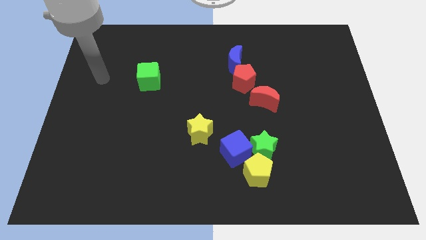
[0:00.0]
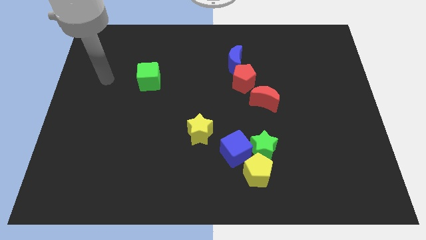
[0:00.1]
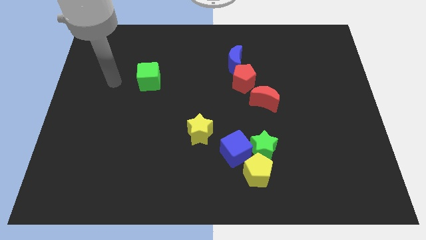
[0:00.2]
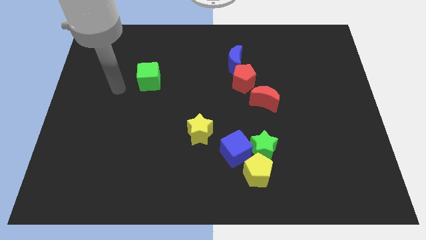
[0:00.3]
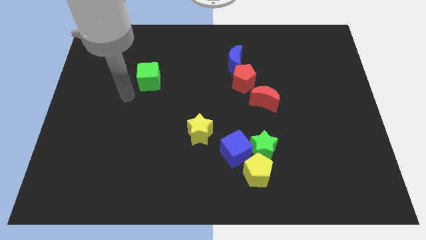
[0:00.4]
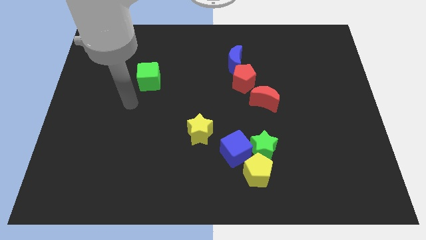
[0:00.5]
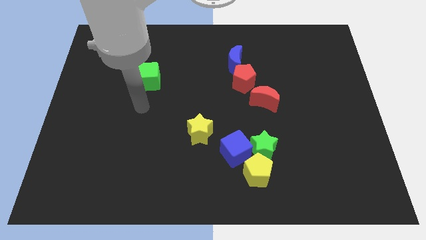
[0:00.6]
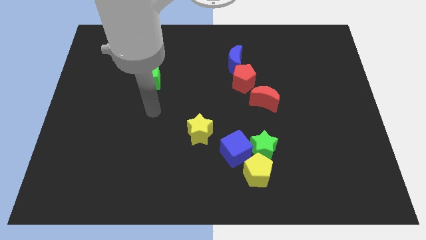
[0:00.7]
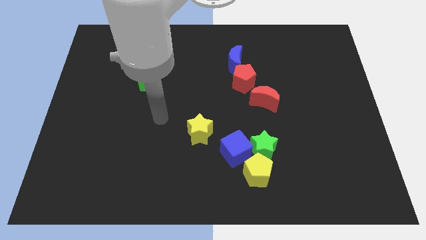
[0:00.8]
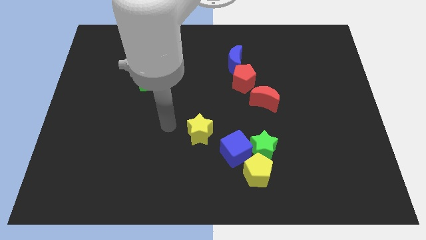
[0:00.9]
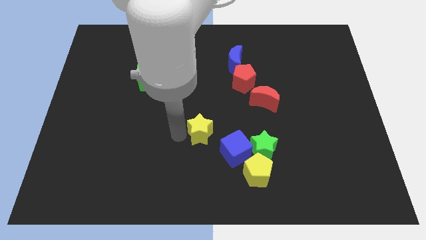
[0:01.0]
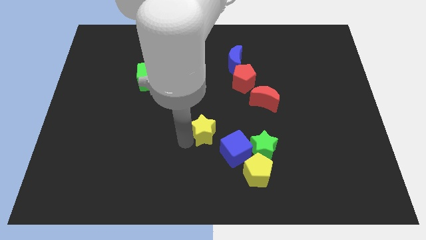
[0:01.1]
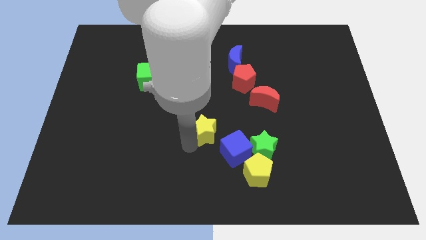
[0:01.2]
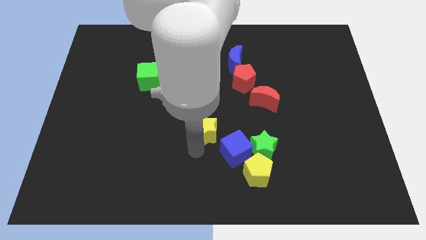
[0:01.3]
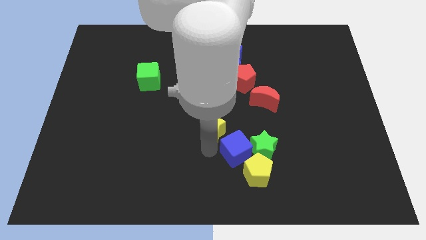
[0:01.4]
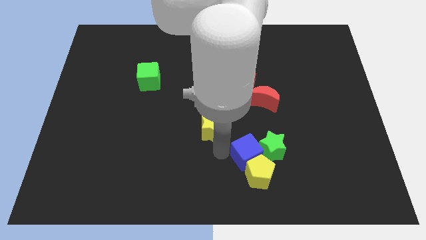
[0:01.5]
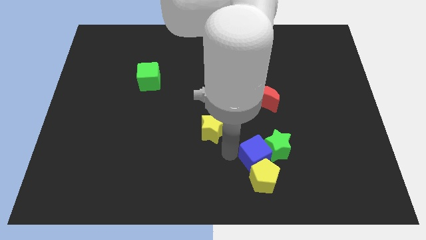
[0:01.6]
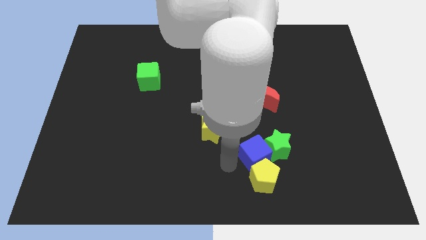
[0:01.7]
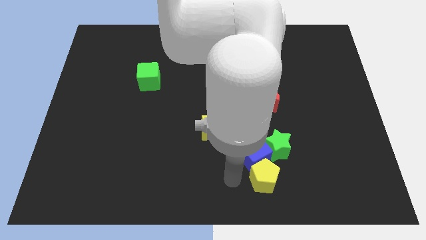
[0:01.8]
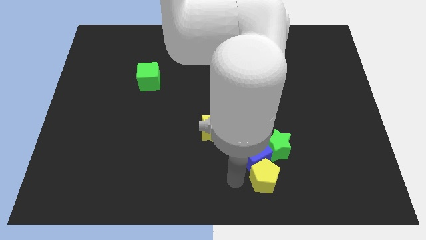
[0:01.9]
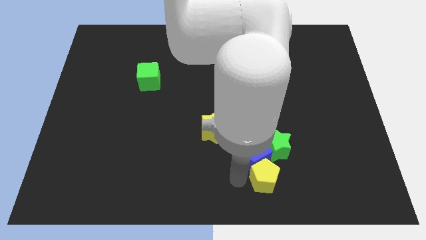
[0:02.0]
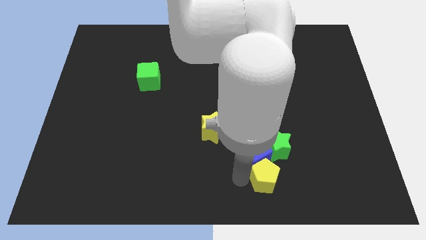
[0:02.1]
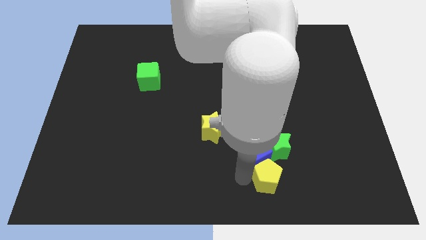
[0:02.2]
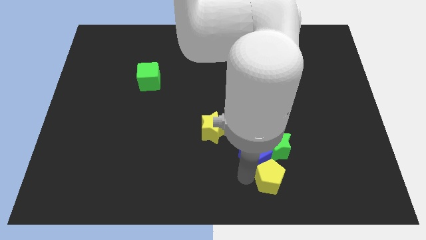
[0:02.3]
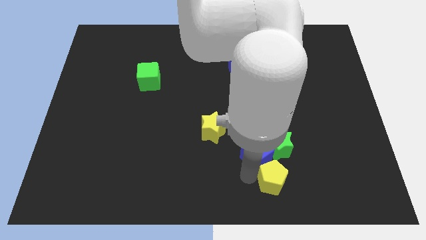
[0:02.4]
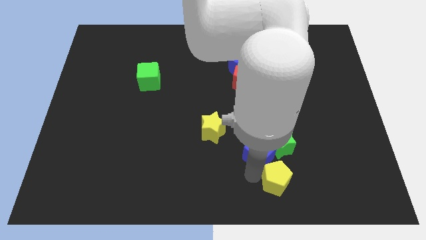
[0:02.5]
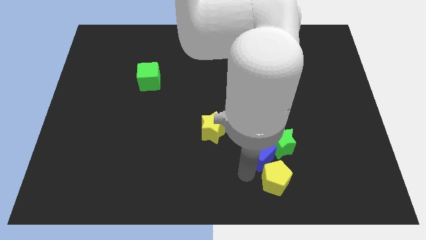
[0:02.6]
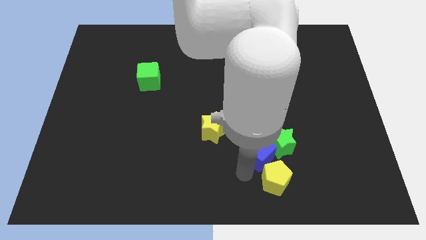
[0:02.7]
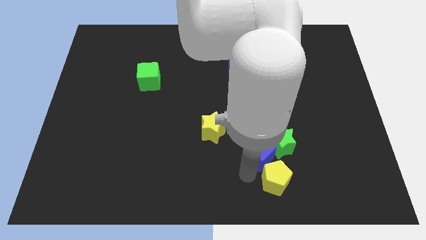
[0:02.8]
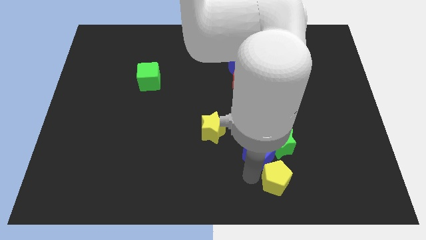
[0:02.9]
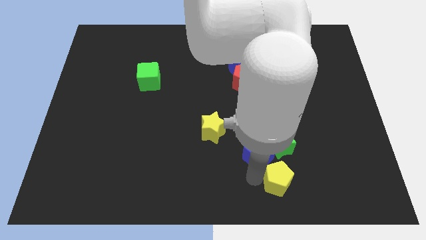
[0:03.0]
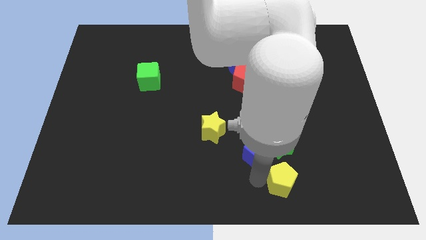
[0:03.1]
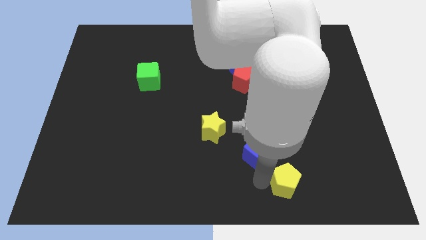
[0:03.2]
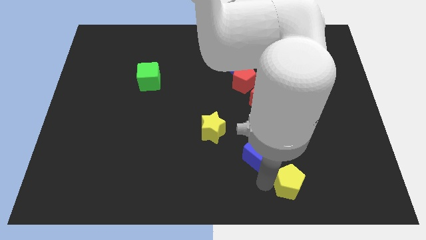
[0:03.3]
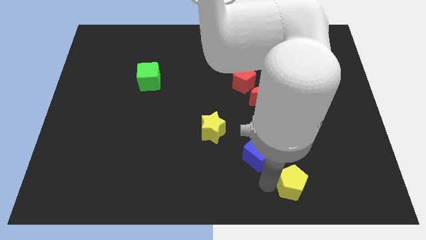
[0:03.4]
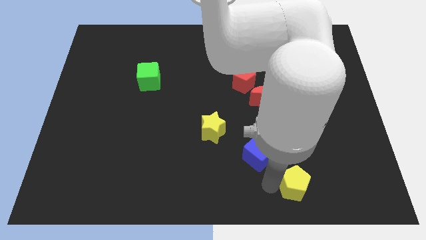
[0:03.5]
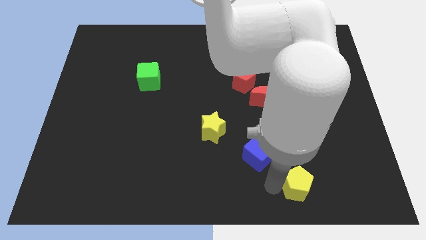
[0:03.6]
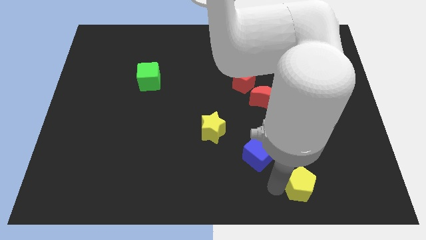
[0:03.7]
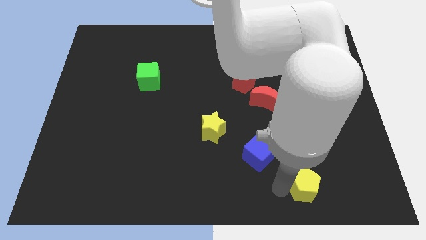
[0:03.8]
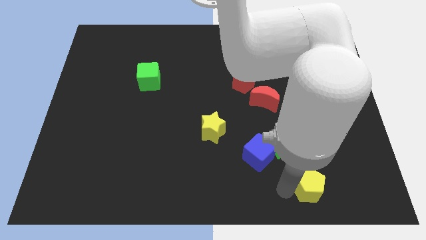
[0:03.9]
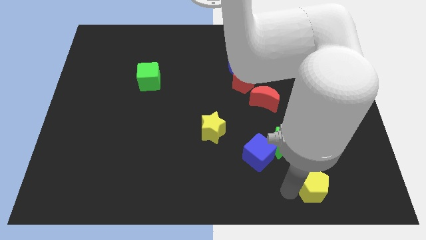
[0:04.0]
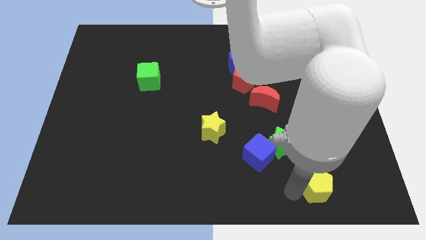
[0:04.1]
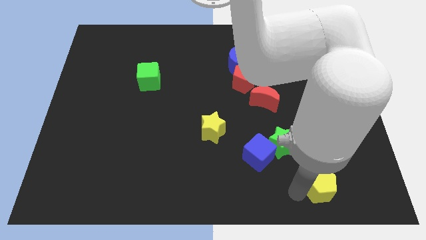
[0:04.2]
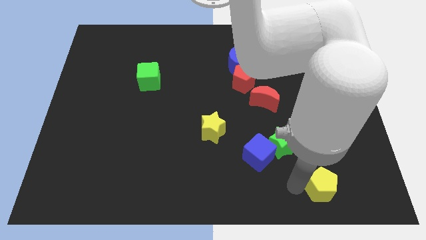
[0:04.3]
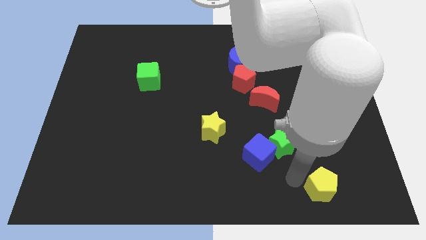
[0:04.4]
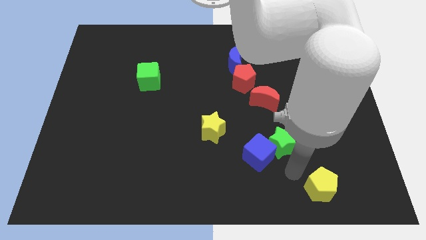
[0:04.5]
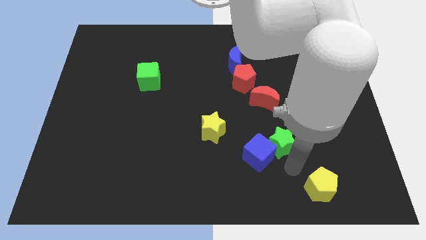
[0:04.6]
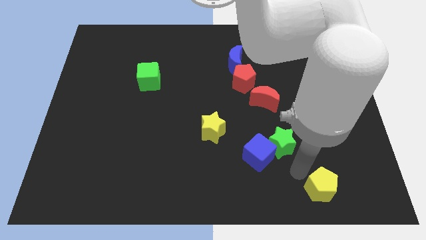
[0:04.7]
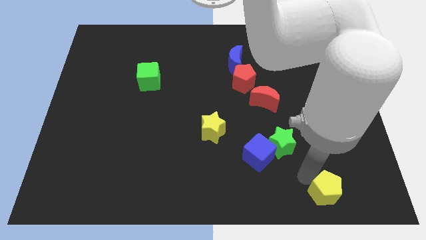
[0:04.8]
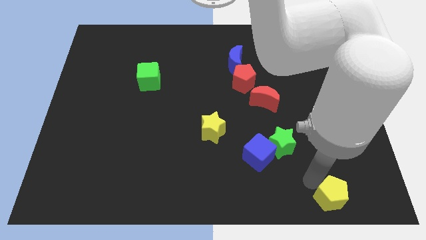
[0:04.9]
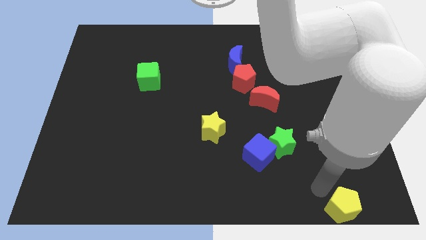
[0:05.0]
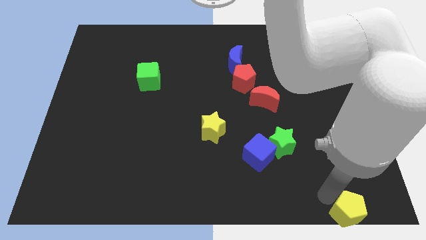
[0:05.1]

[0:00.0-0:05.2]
slide the yellow pentagon to the lower right corner

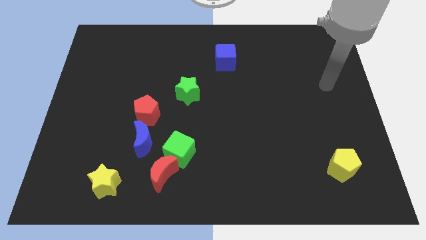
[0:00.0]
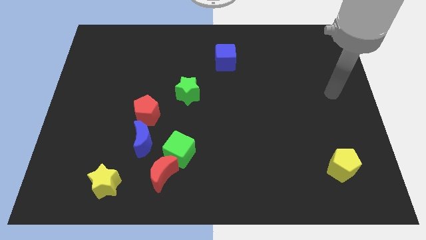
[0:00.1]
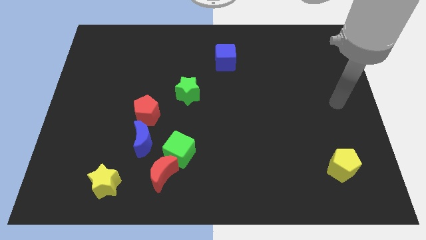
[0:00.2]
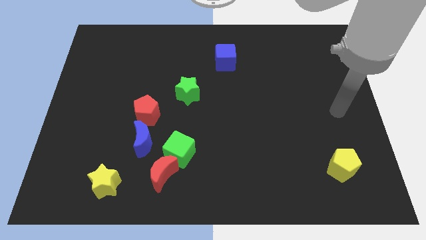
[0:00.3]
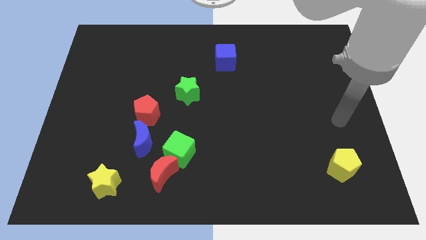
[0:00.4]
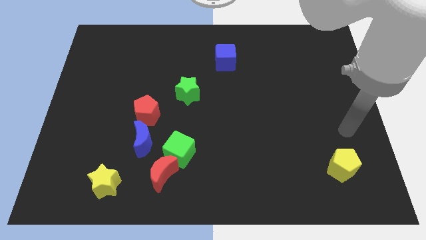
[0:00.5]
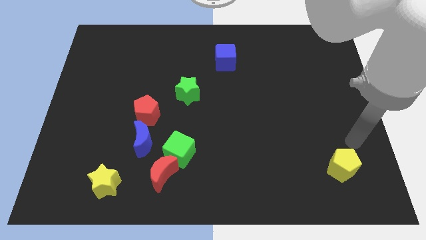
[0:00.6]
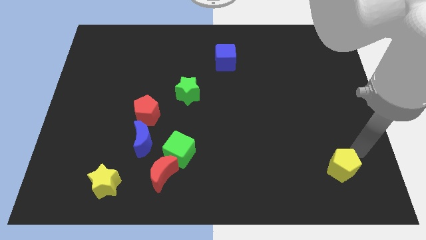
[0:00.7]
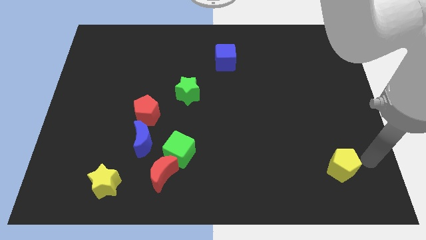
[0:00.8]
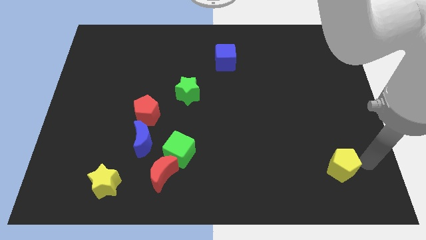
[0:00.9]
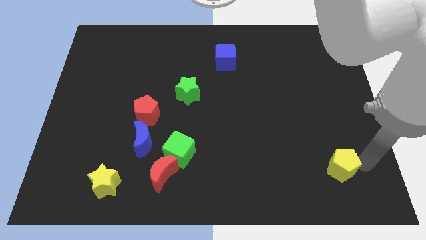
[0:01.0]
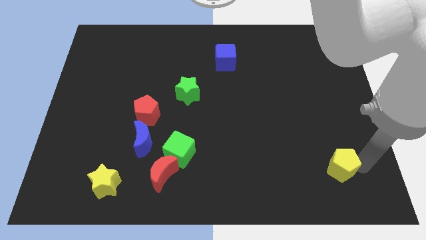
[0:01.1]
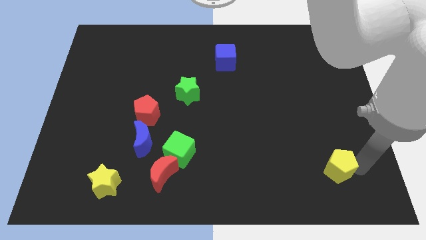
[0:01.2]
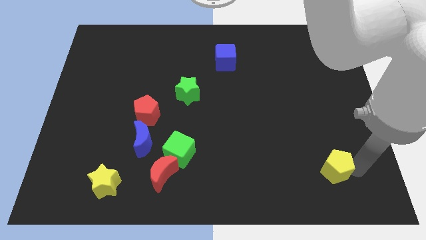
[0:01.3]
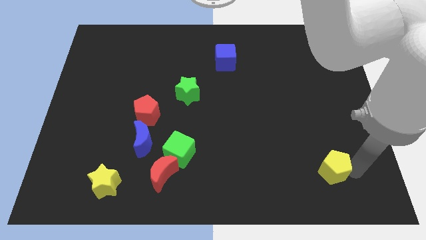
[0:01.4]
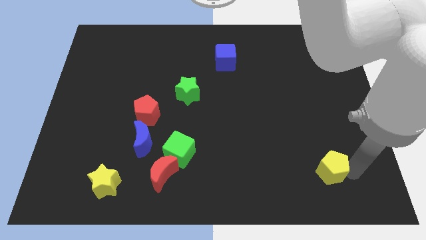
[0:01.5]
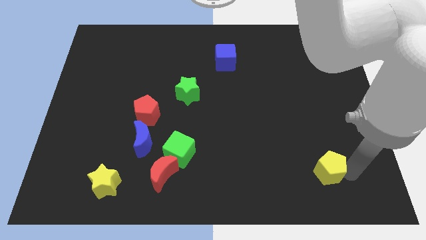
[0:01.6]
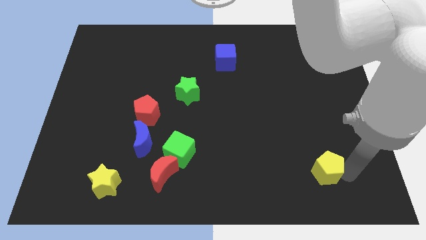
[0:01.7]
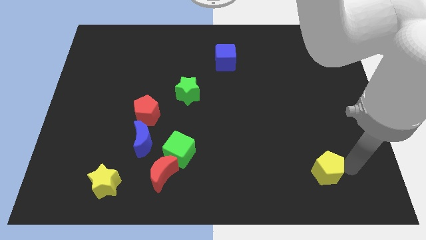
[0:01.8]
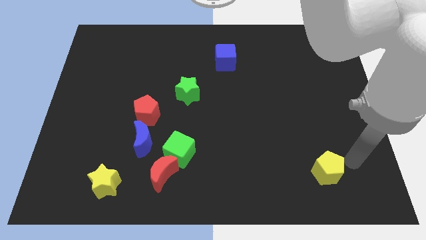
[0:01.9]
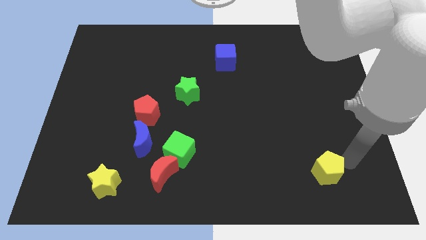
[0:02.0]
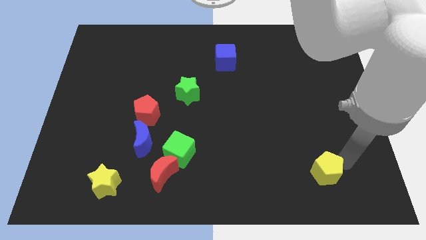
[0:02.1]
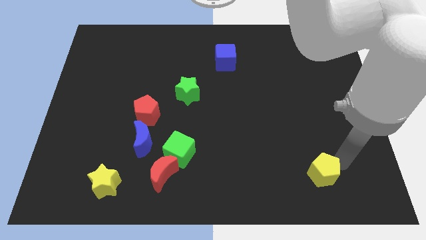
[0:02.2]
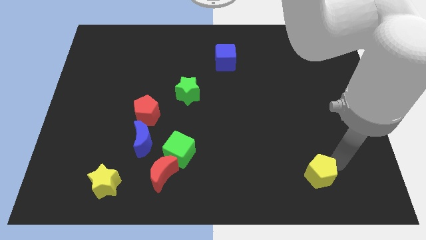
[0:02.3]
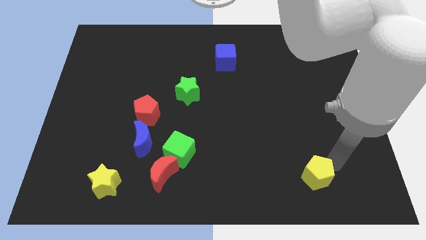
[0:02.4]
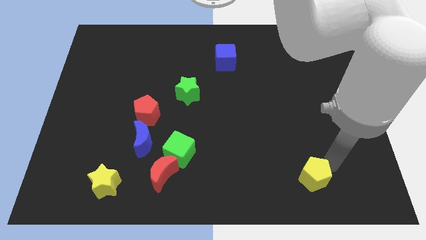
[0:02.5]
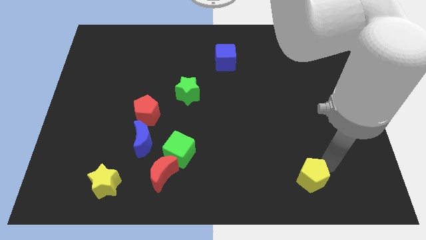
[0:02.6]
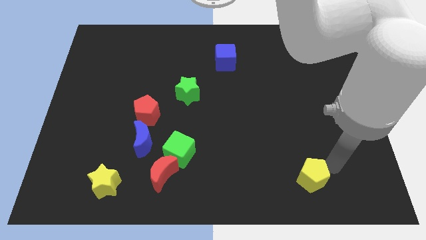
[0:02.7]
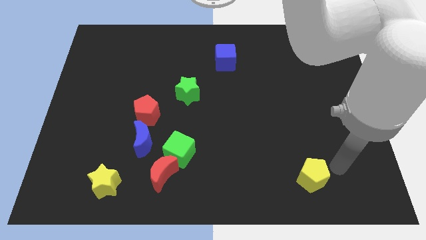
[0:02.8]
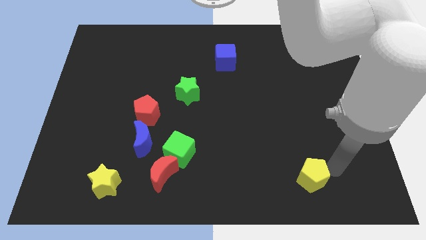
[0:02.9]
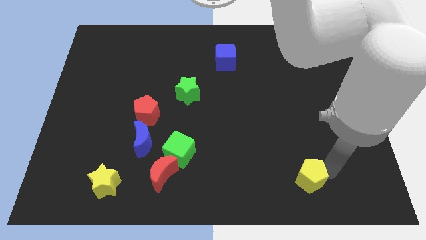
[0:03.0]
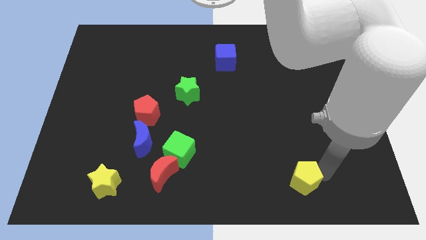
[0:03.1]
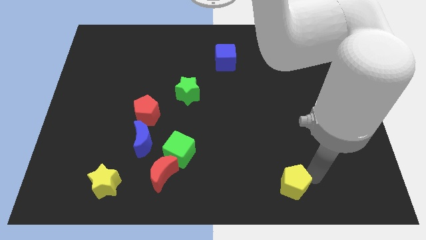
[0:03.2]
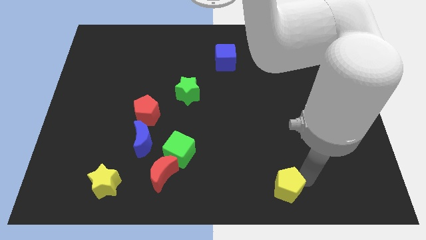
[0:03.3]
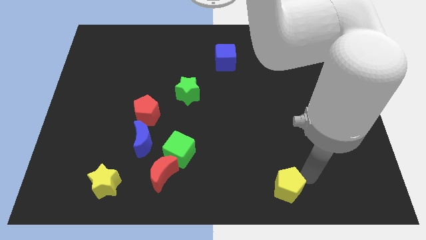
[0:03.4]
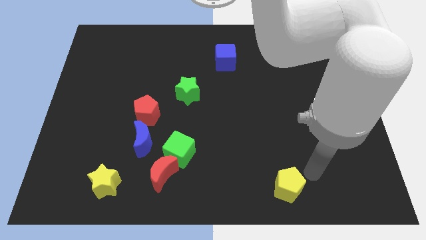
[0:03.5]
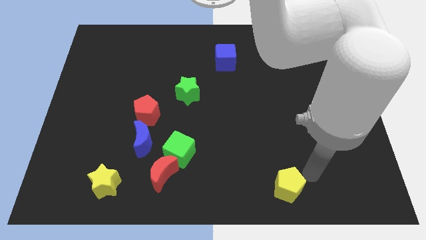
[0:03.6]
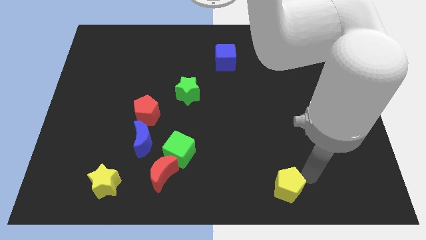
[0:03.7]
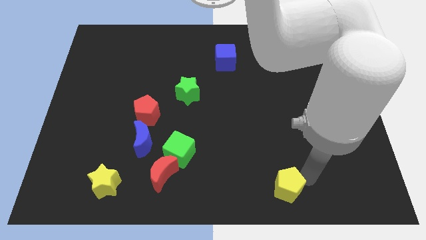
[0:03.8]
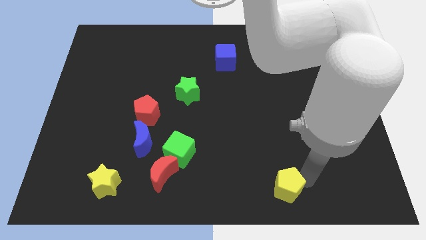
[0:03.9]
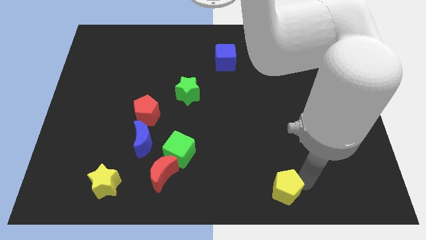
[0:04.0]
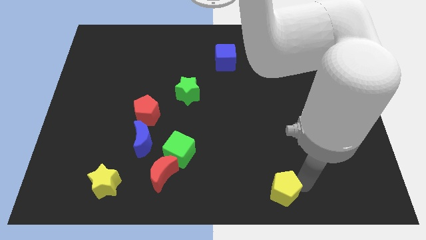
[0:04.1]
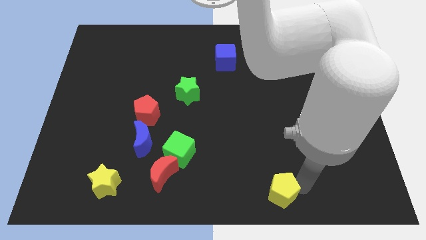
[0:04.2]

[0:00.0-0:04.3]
move the yellow pentagon to the bottom side
